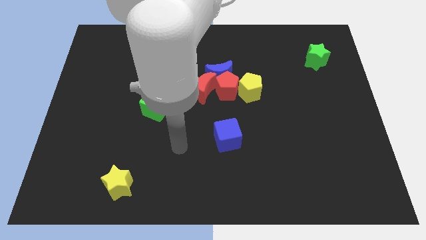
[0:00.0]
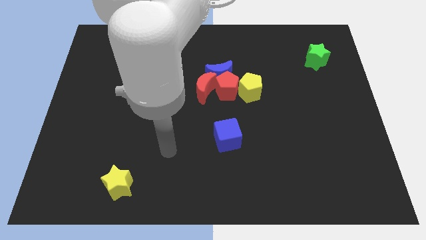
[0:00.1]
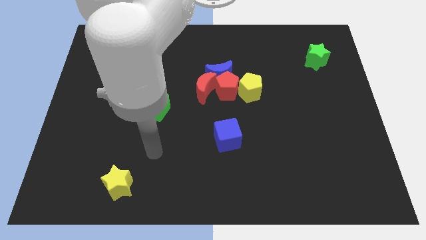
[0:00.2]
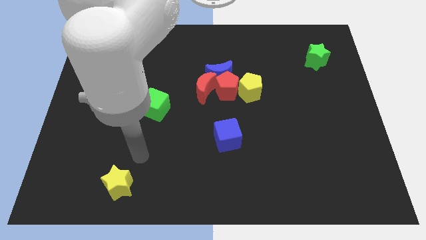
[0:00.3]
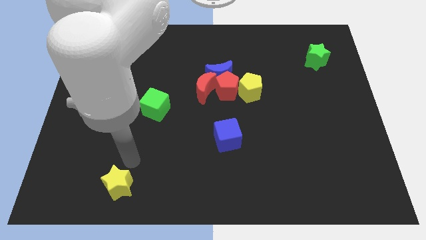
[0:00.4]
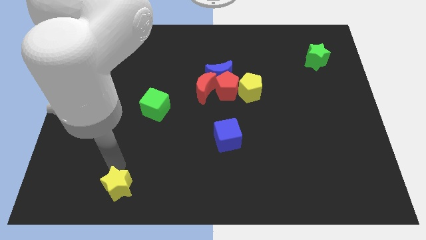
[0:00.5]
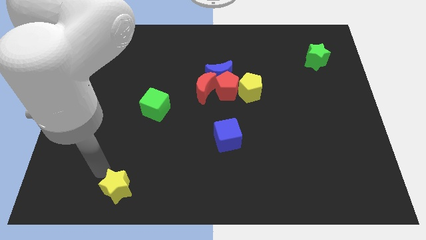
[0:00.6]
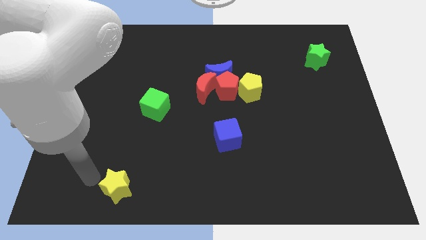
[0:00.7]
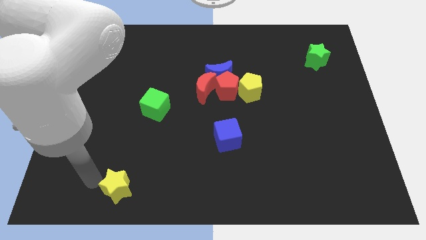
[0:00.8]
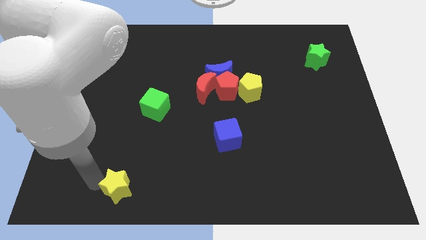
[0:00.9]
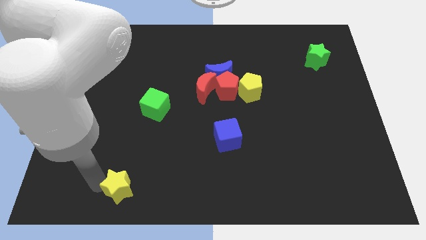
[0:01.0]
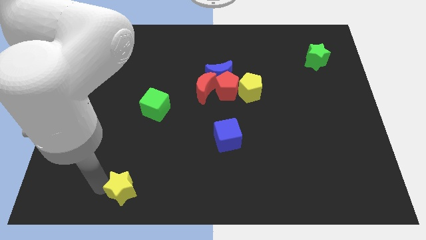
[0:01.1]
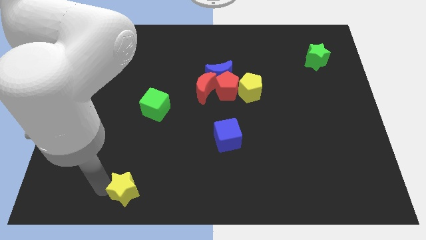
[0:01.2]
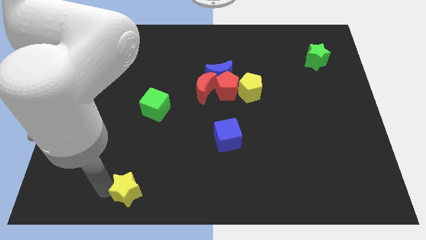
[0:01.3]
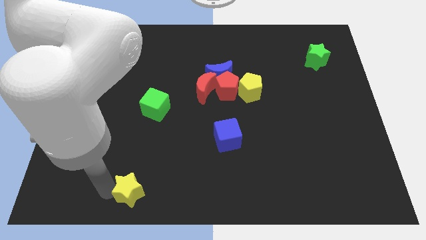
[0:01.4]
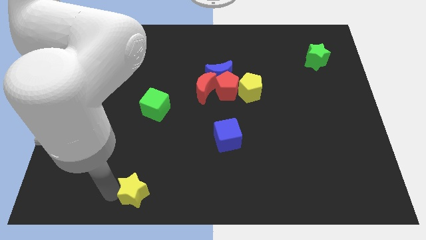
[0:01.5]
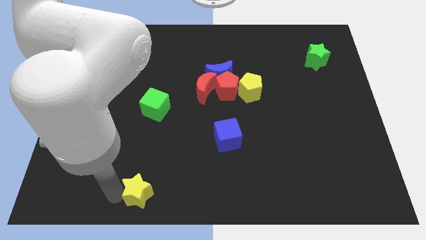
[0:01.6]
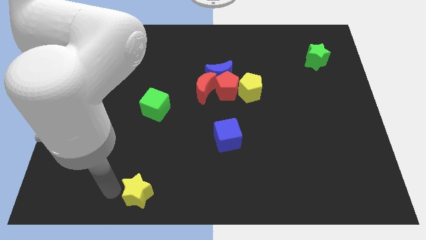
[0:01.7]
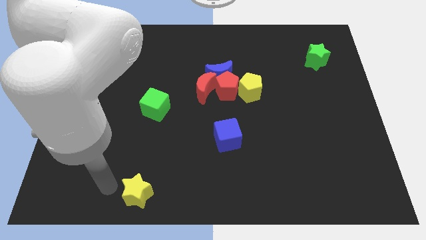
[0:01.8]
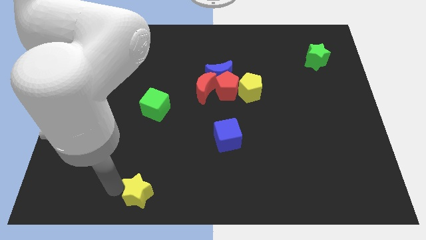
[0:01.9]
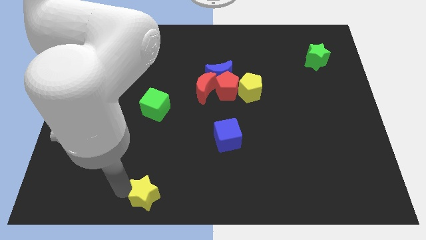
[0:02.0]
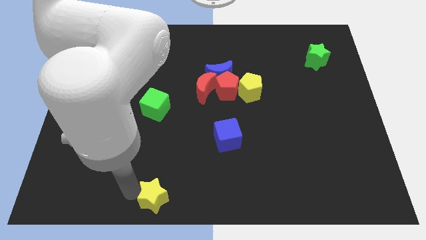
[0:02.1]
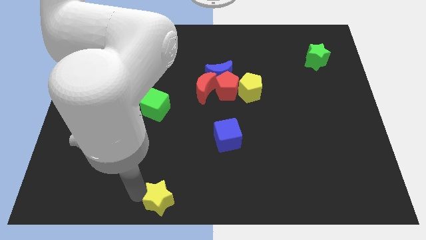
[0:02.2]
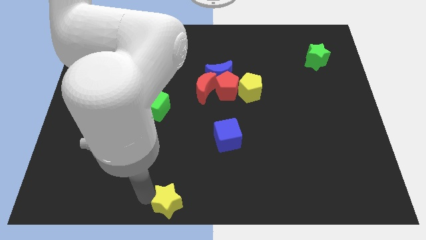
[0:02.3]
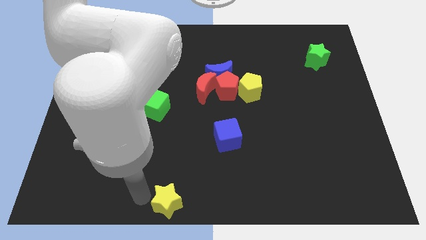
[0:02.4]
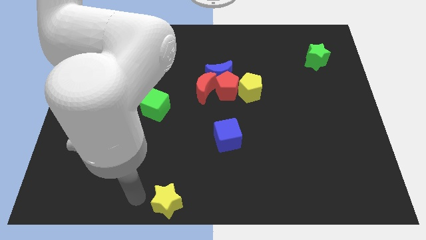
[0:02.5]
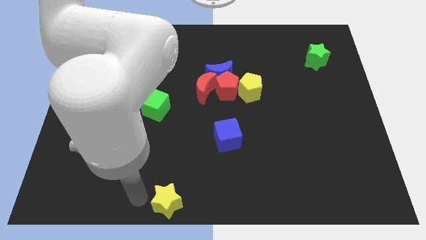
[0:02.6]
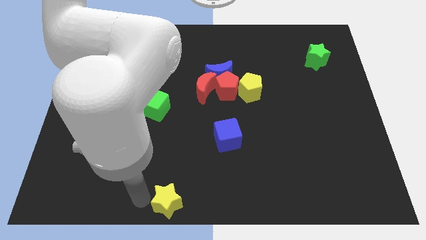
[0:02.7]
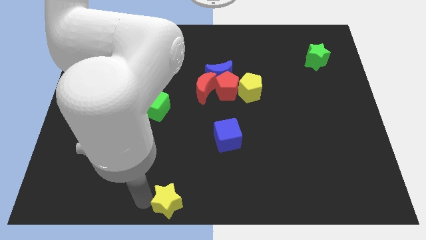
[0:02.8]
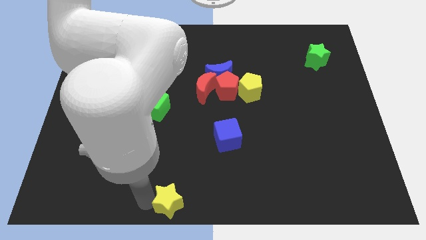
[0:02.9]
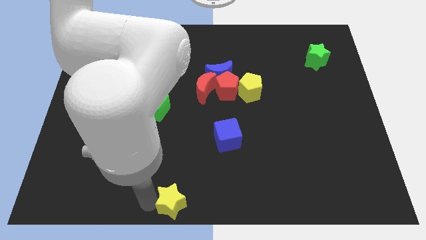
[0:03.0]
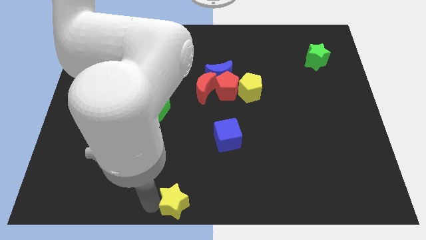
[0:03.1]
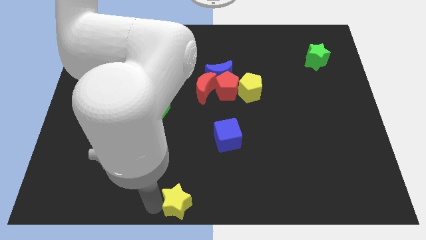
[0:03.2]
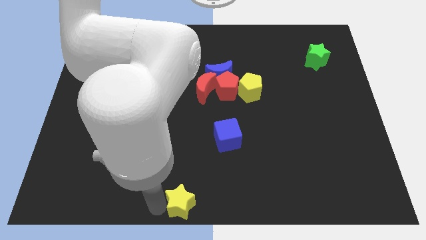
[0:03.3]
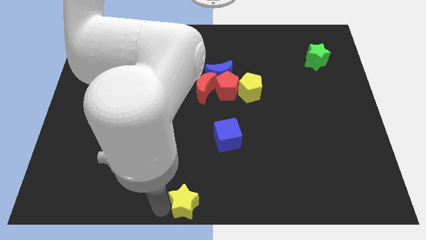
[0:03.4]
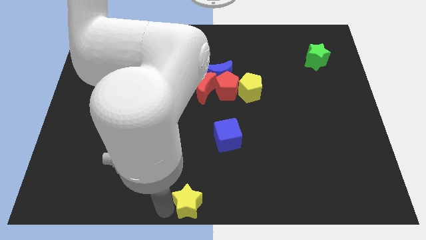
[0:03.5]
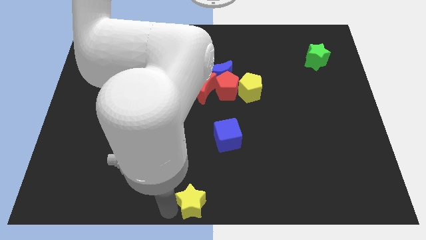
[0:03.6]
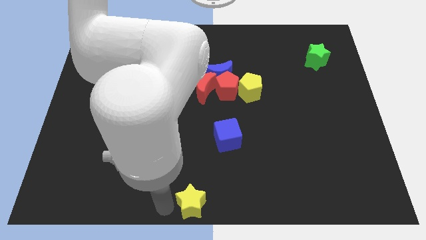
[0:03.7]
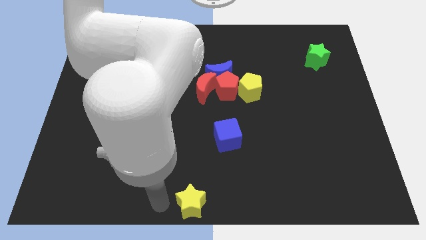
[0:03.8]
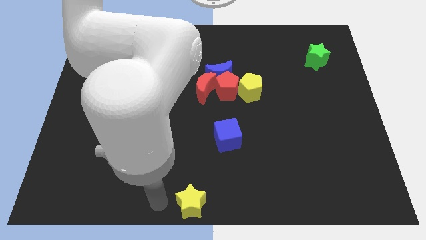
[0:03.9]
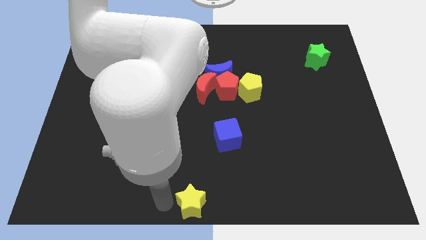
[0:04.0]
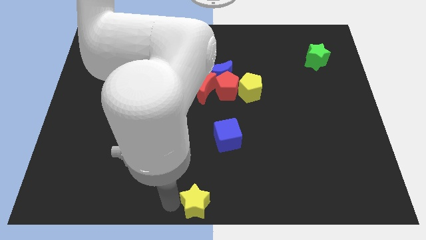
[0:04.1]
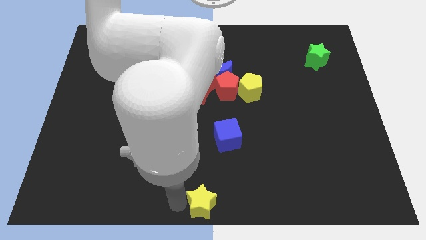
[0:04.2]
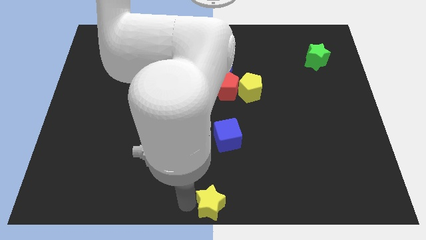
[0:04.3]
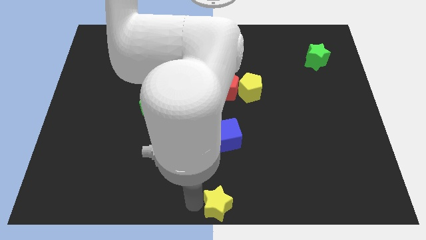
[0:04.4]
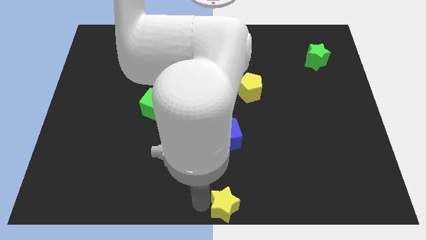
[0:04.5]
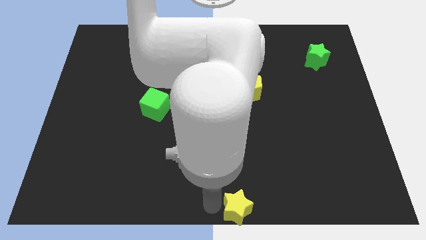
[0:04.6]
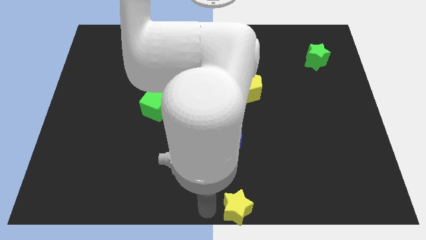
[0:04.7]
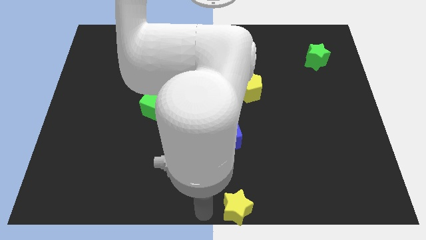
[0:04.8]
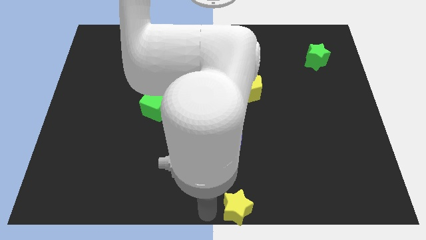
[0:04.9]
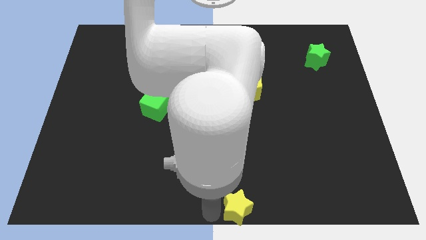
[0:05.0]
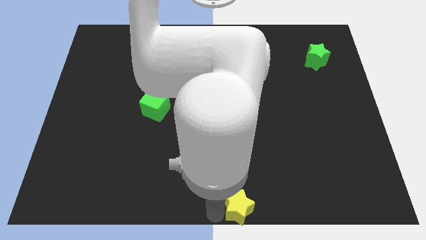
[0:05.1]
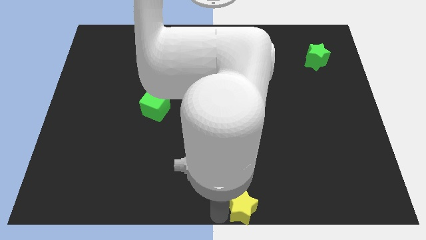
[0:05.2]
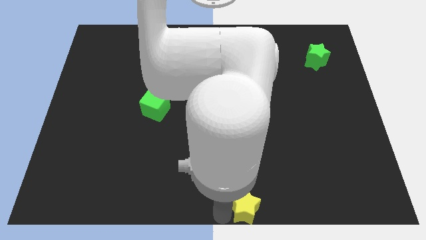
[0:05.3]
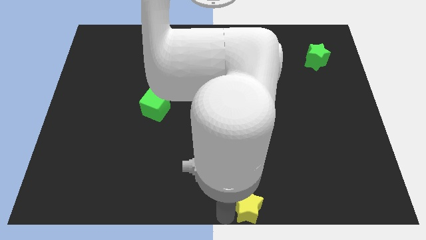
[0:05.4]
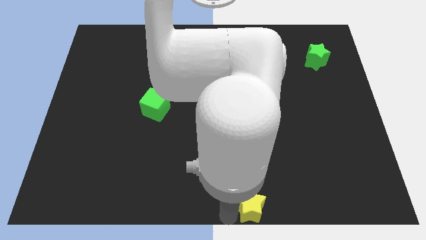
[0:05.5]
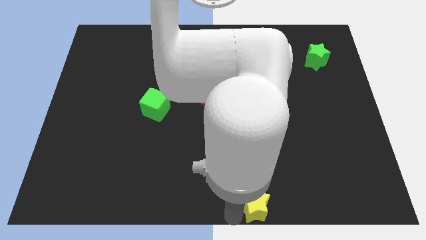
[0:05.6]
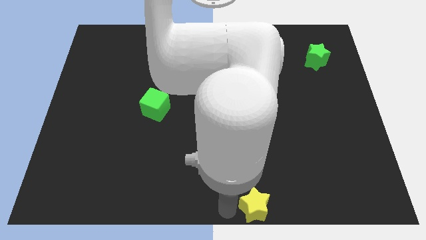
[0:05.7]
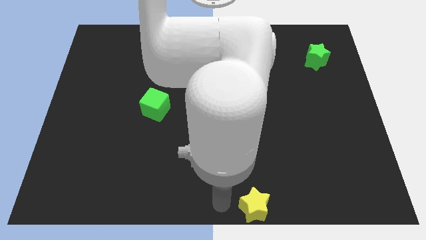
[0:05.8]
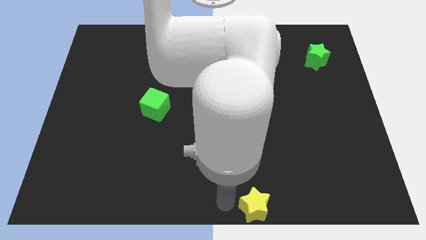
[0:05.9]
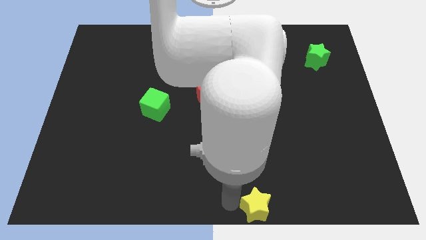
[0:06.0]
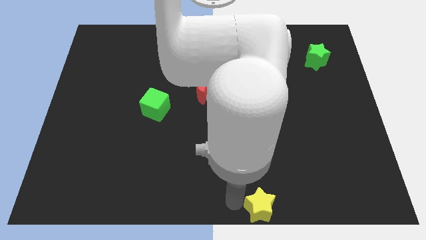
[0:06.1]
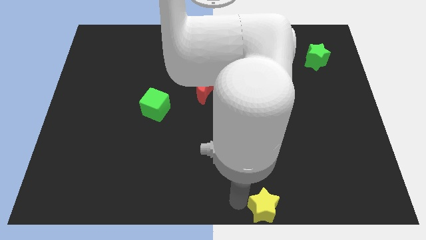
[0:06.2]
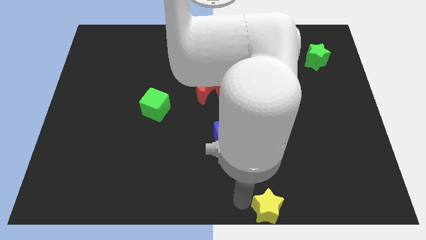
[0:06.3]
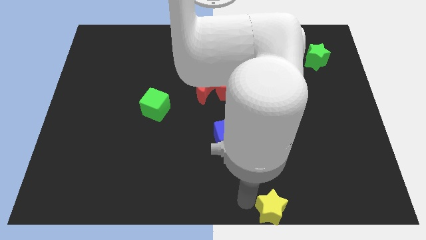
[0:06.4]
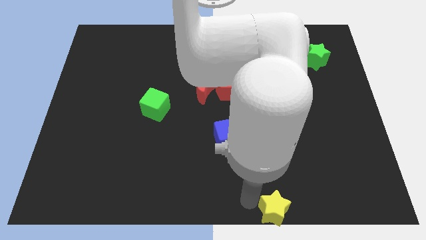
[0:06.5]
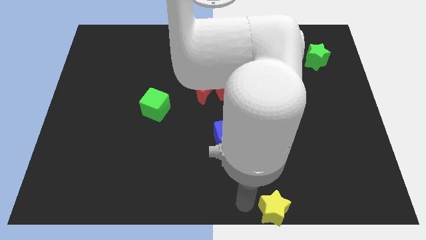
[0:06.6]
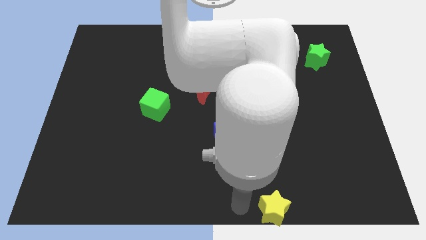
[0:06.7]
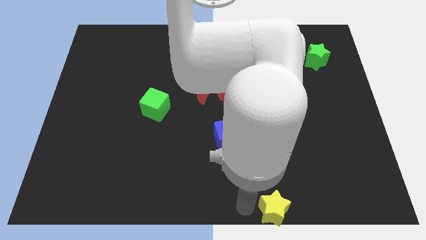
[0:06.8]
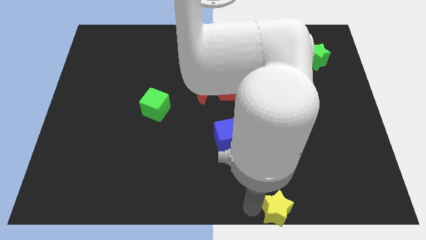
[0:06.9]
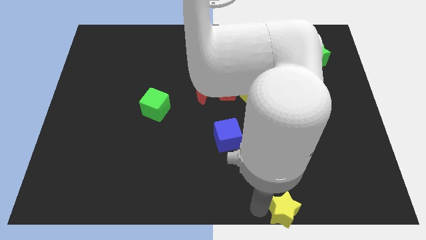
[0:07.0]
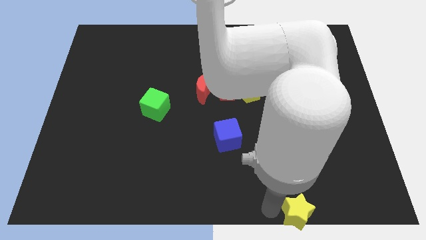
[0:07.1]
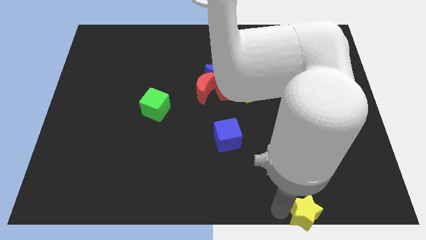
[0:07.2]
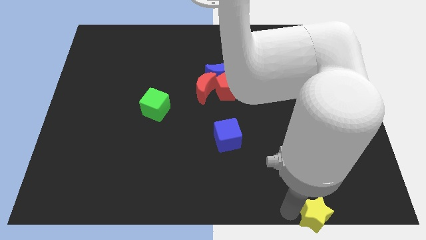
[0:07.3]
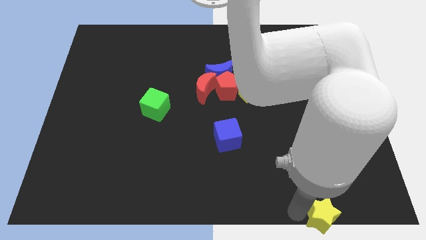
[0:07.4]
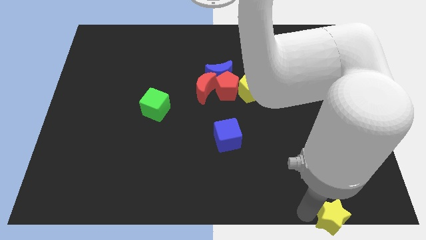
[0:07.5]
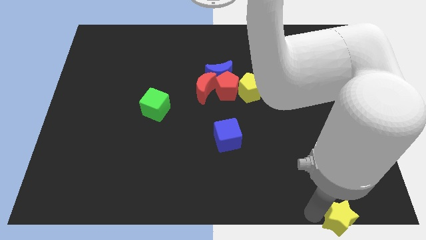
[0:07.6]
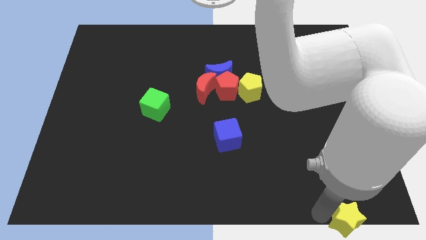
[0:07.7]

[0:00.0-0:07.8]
move the yellow star to the bottom right
